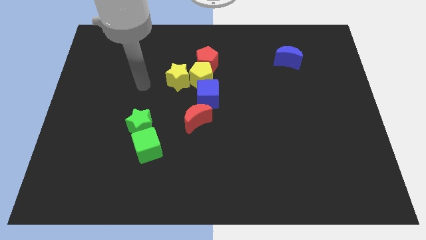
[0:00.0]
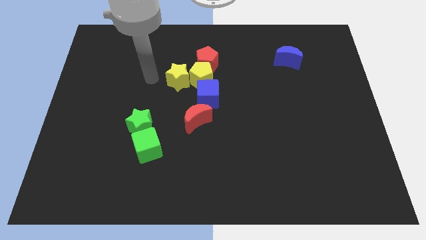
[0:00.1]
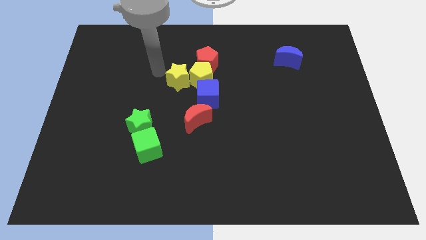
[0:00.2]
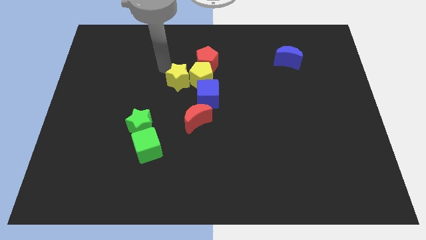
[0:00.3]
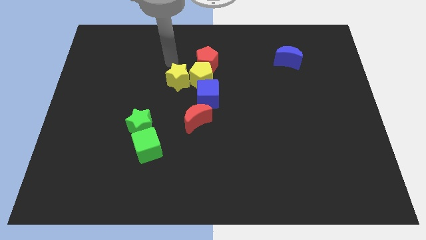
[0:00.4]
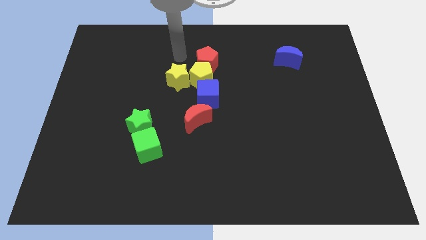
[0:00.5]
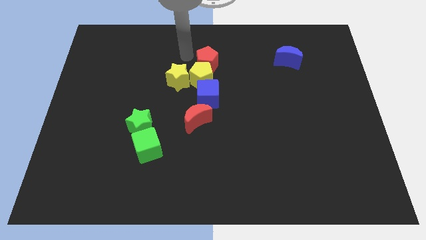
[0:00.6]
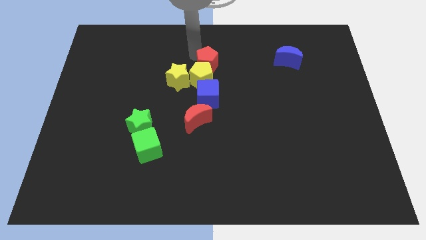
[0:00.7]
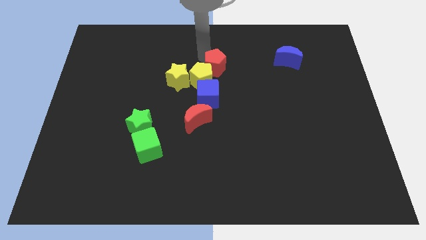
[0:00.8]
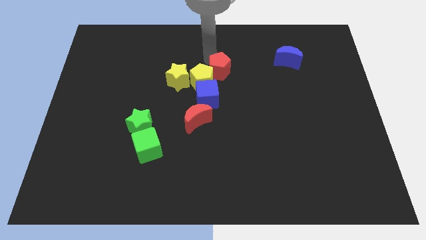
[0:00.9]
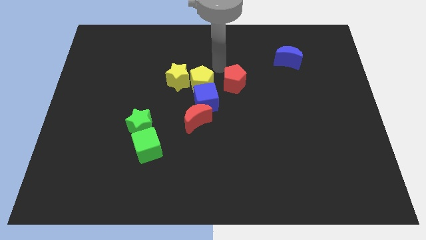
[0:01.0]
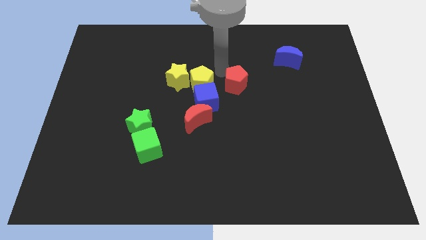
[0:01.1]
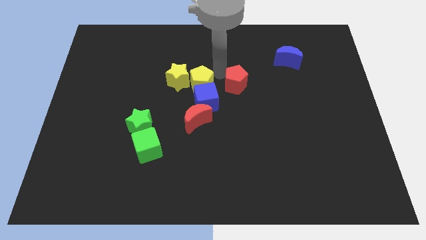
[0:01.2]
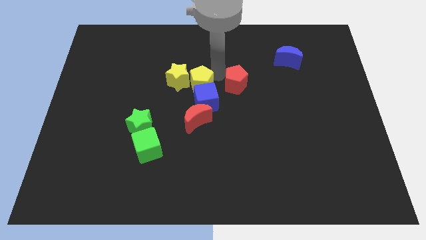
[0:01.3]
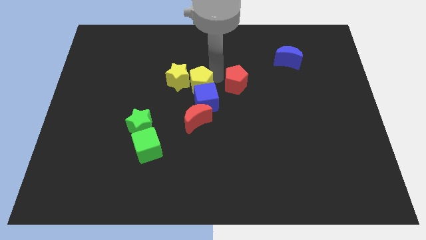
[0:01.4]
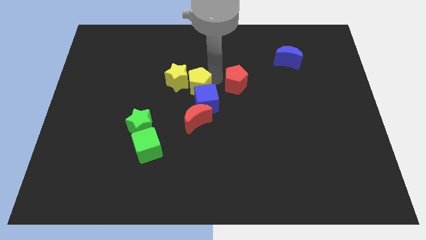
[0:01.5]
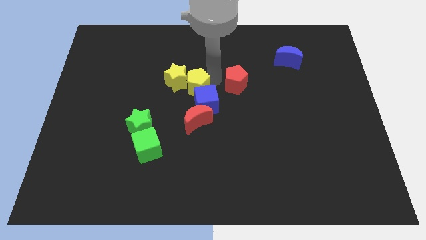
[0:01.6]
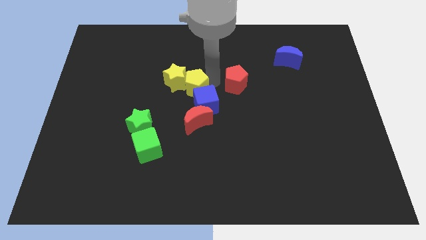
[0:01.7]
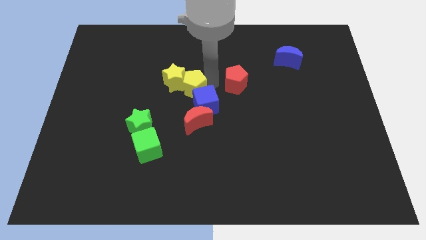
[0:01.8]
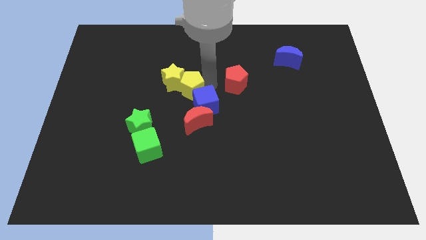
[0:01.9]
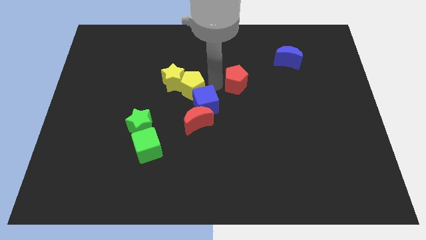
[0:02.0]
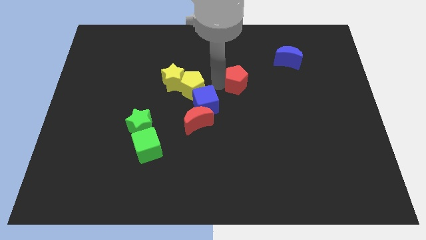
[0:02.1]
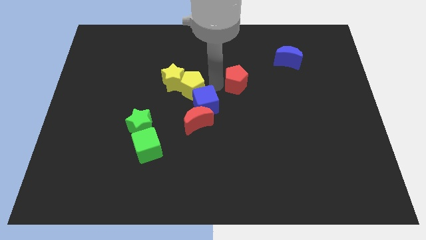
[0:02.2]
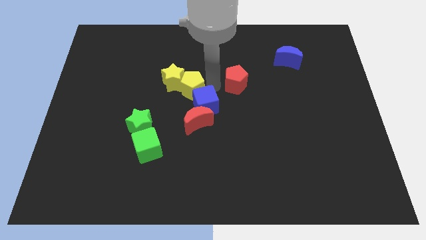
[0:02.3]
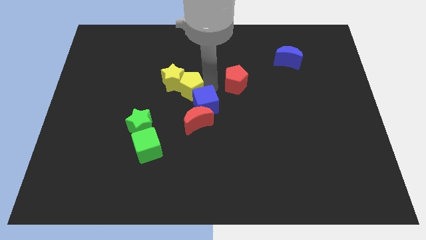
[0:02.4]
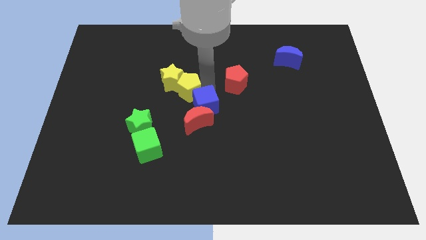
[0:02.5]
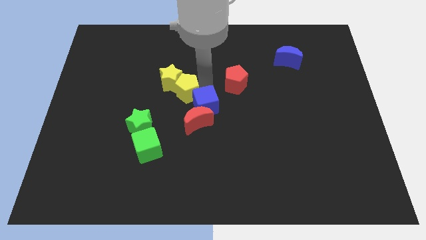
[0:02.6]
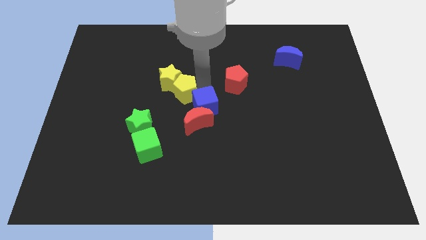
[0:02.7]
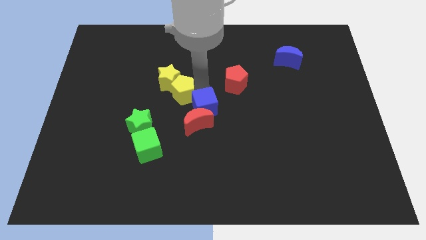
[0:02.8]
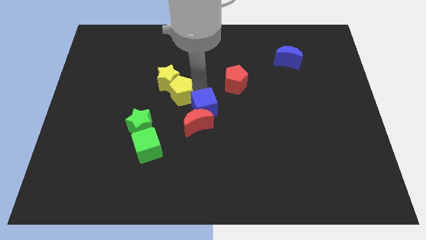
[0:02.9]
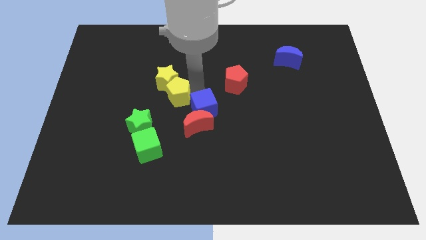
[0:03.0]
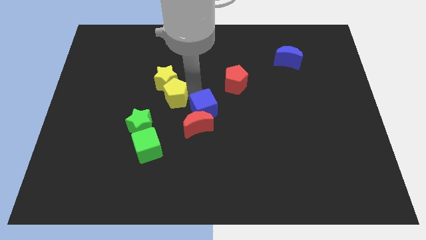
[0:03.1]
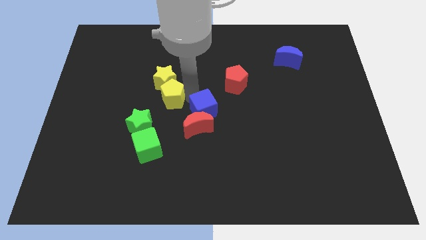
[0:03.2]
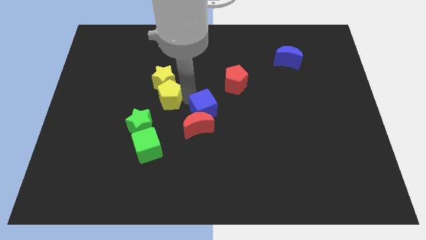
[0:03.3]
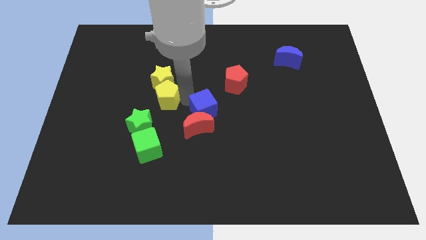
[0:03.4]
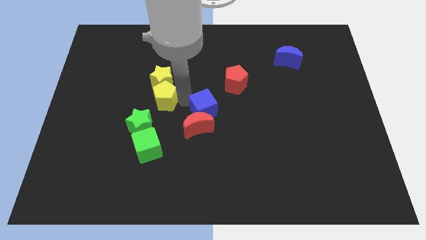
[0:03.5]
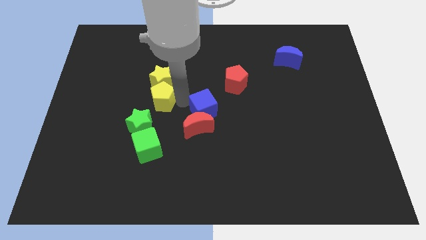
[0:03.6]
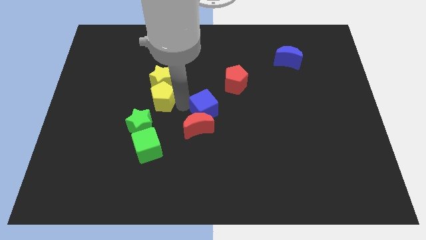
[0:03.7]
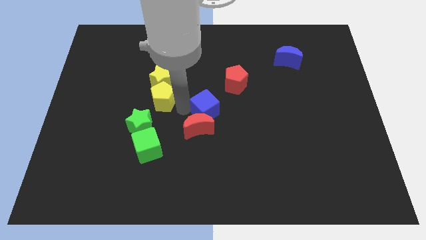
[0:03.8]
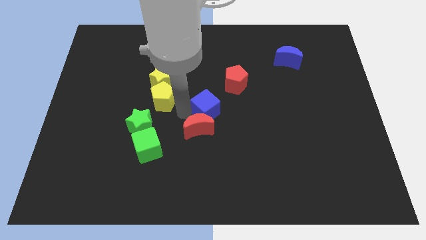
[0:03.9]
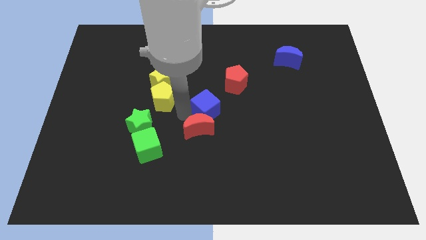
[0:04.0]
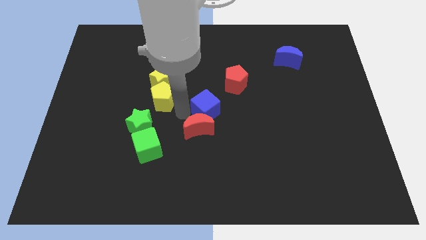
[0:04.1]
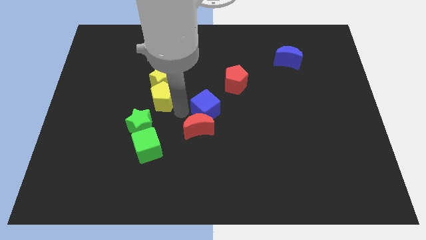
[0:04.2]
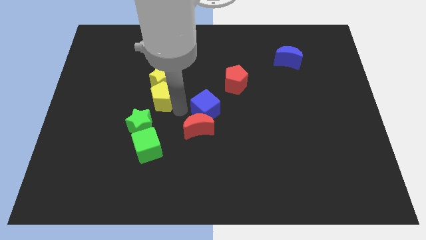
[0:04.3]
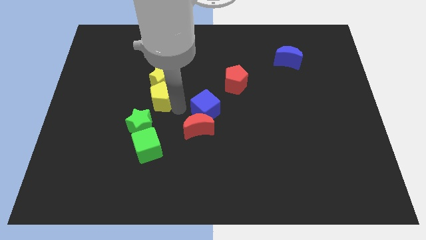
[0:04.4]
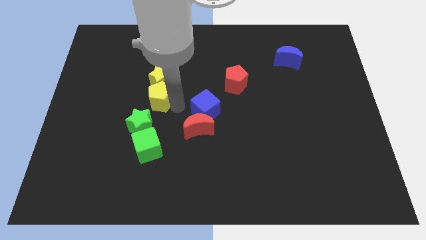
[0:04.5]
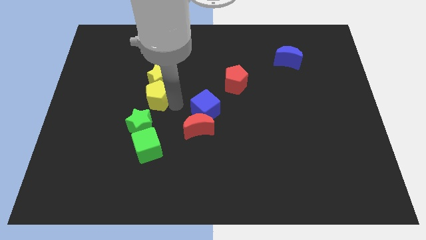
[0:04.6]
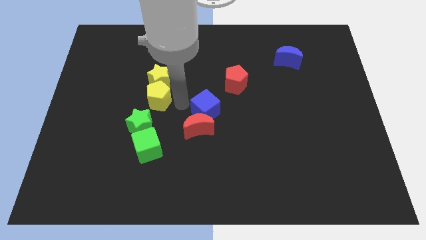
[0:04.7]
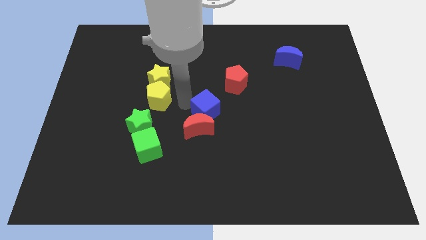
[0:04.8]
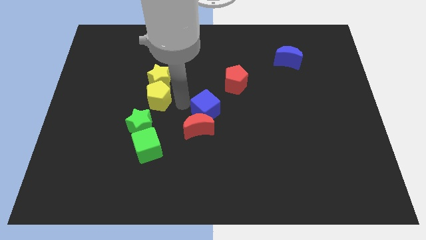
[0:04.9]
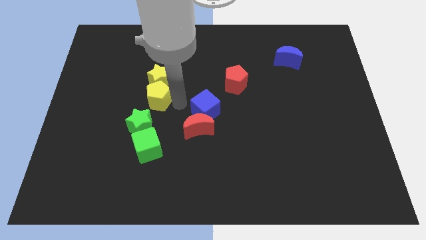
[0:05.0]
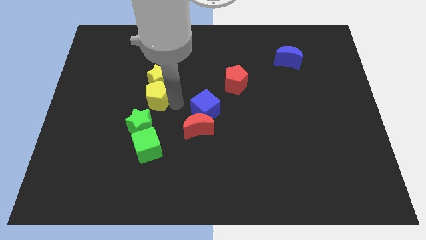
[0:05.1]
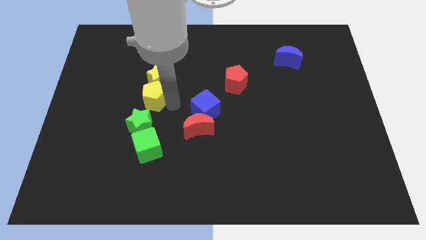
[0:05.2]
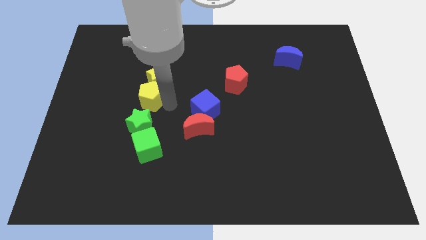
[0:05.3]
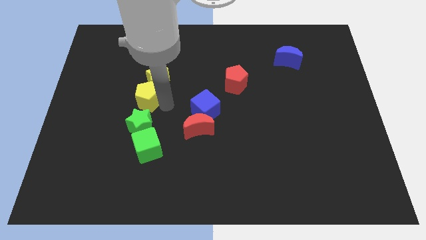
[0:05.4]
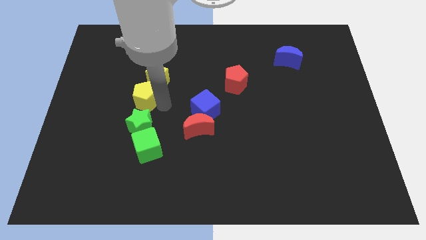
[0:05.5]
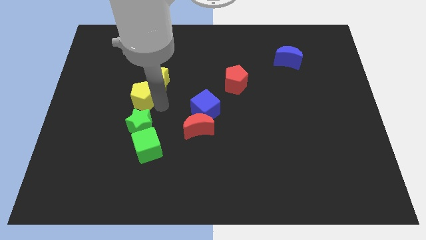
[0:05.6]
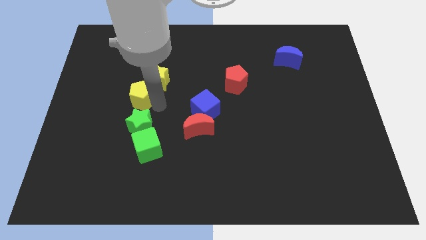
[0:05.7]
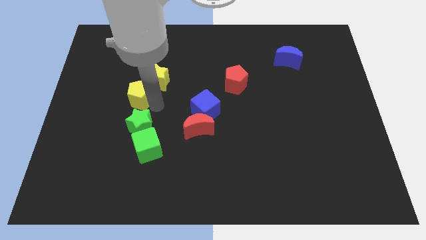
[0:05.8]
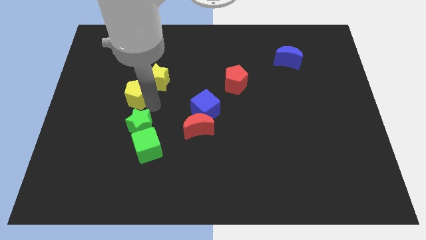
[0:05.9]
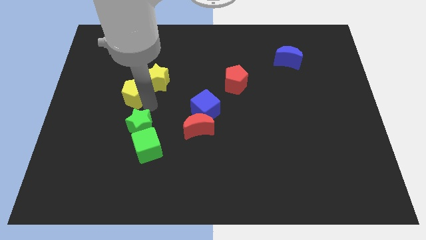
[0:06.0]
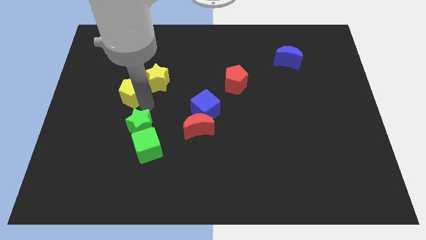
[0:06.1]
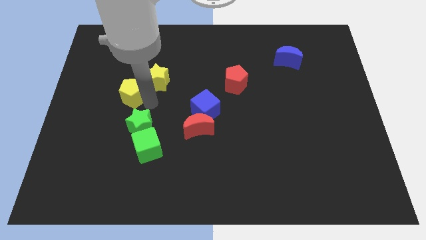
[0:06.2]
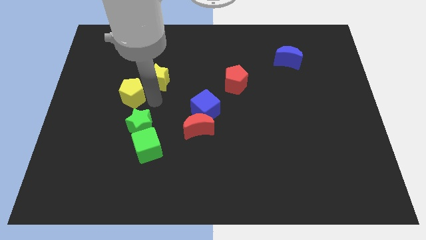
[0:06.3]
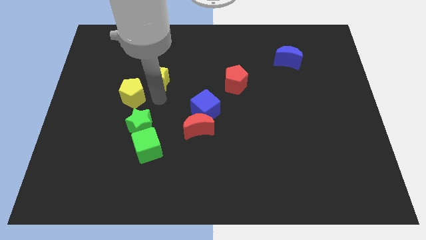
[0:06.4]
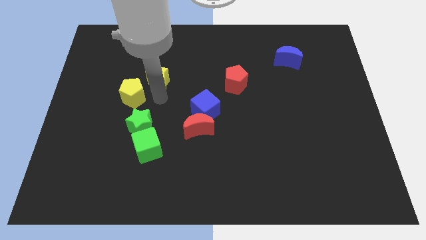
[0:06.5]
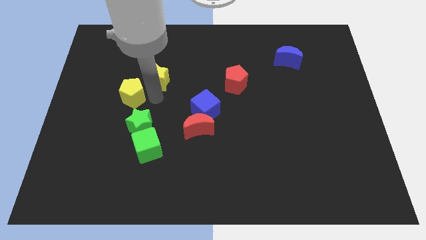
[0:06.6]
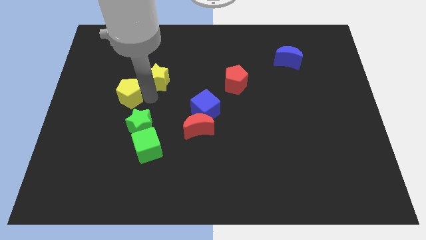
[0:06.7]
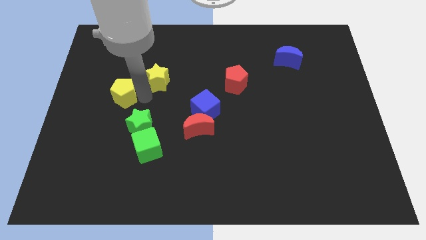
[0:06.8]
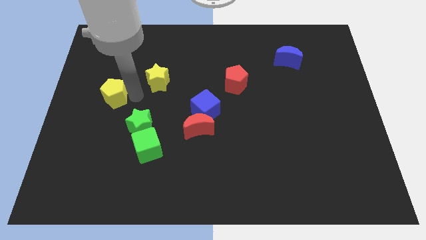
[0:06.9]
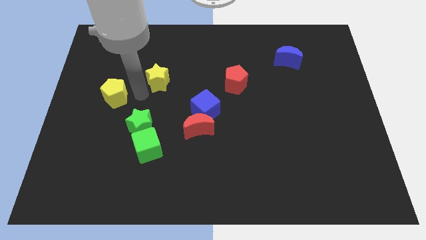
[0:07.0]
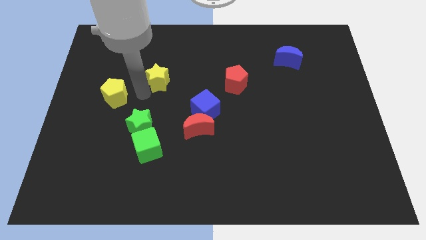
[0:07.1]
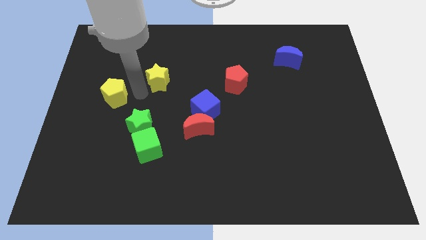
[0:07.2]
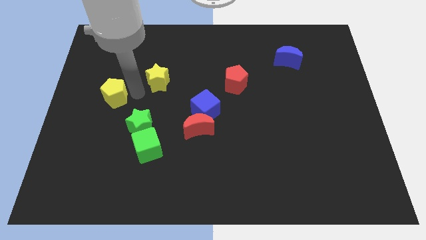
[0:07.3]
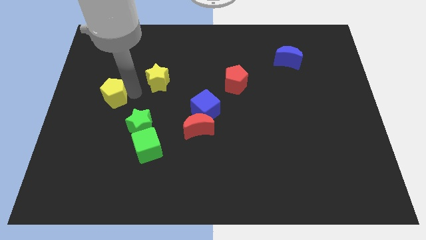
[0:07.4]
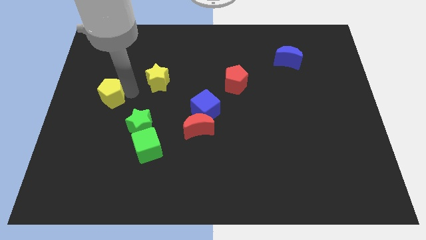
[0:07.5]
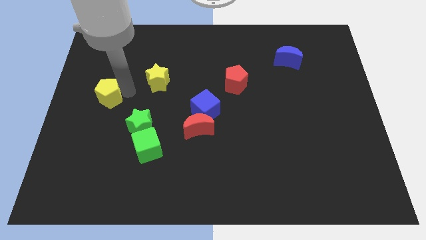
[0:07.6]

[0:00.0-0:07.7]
slide the yellow pentagon to the center left
